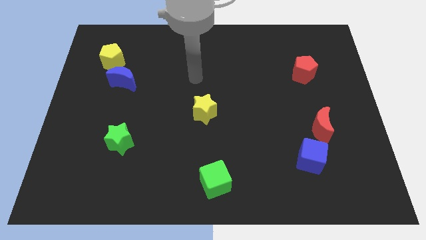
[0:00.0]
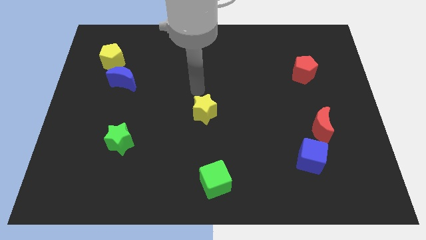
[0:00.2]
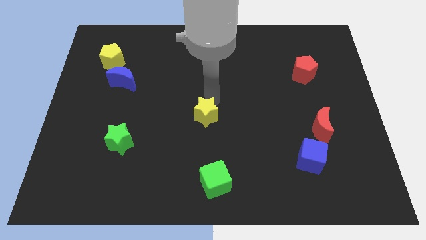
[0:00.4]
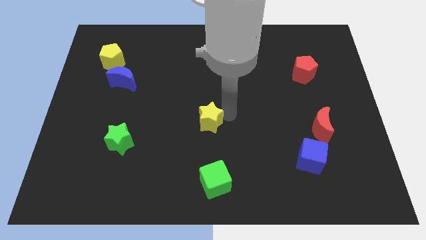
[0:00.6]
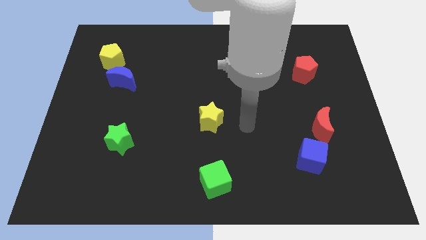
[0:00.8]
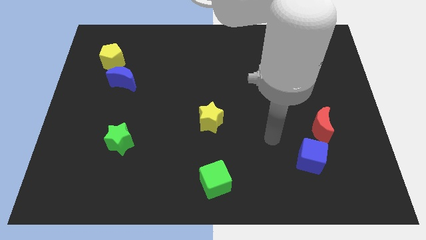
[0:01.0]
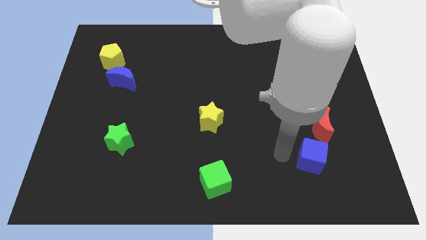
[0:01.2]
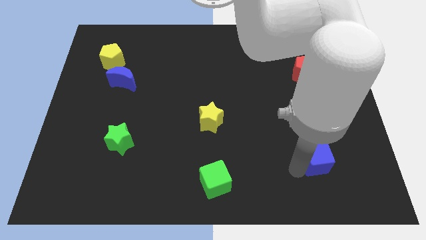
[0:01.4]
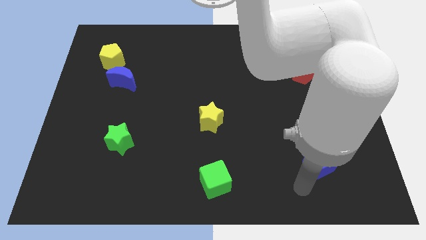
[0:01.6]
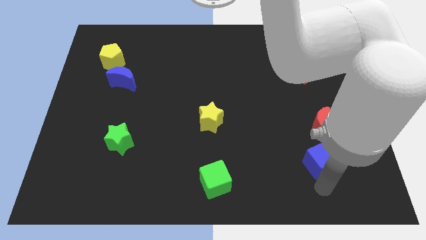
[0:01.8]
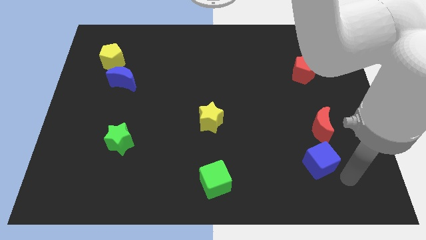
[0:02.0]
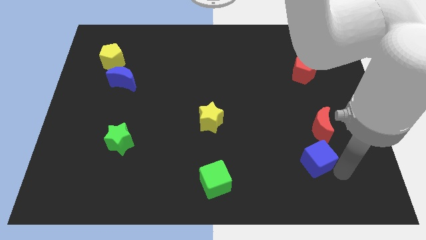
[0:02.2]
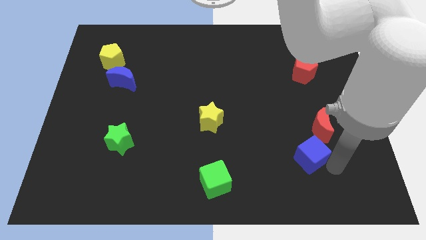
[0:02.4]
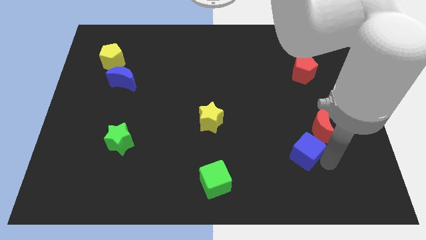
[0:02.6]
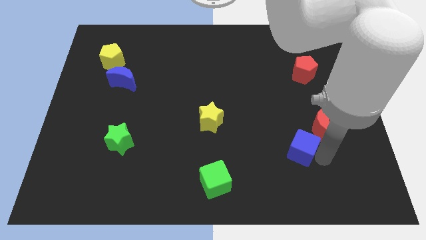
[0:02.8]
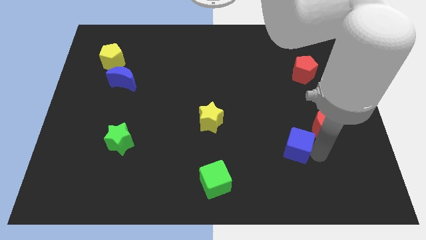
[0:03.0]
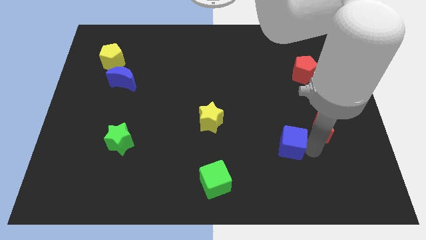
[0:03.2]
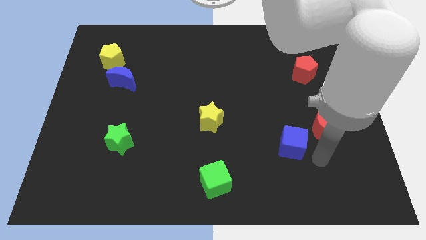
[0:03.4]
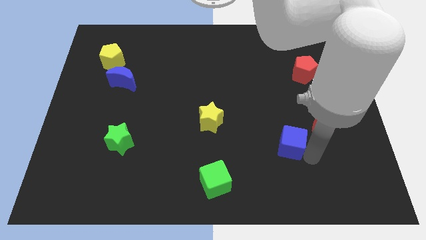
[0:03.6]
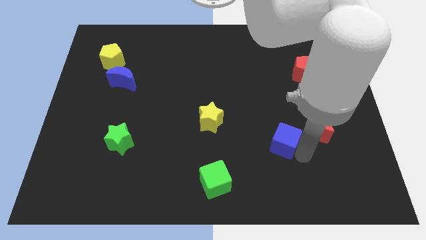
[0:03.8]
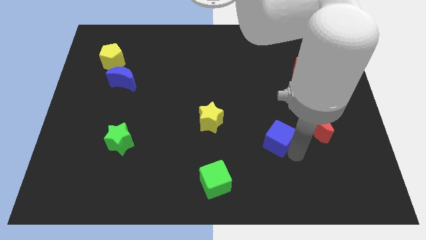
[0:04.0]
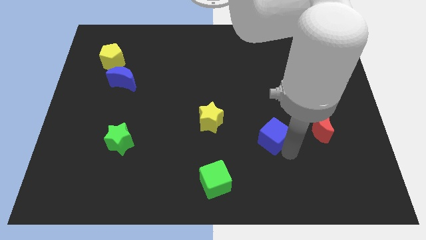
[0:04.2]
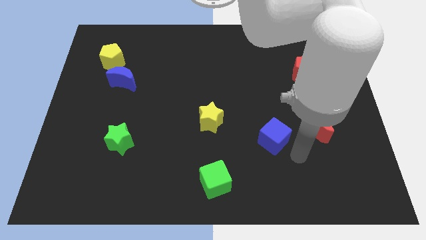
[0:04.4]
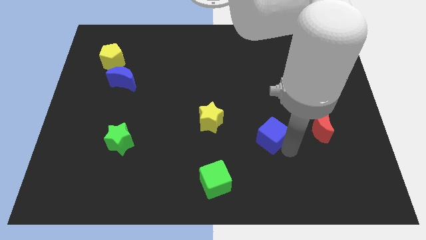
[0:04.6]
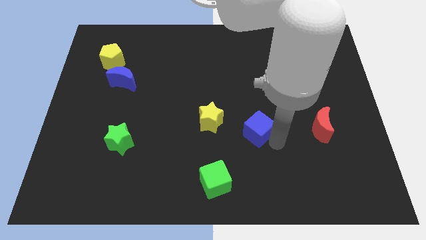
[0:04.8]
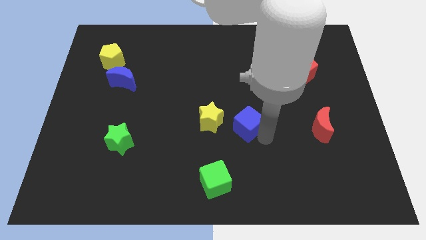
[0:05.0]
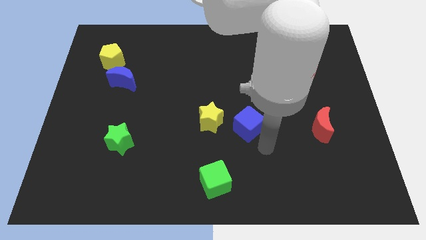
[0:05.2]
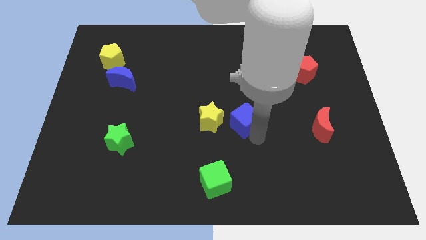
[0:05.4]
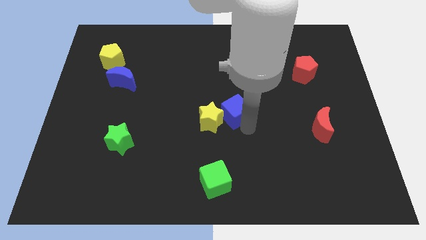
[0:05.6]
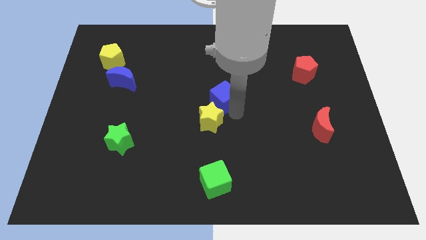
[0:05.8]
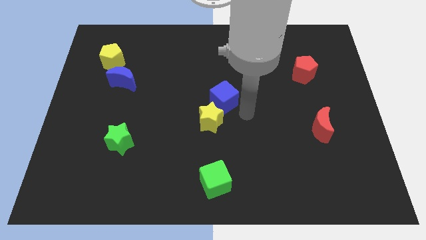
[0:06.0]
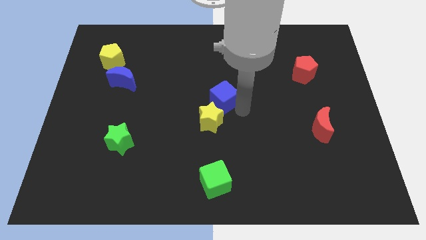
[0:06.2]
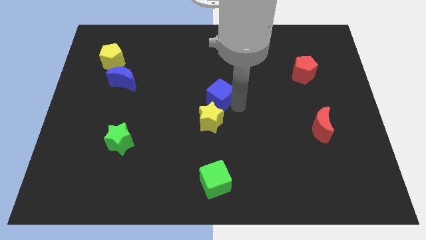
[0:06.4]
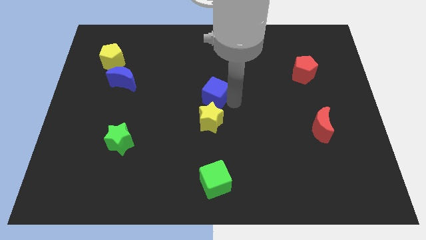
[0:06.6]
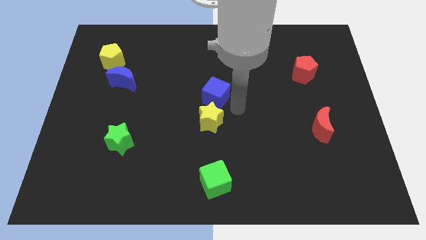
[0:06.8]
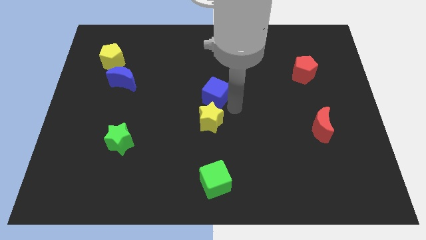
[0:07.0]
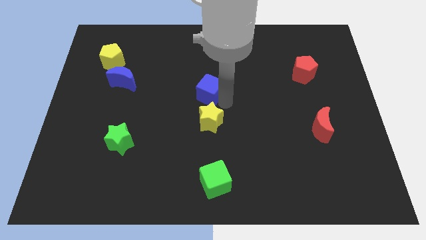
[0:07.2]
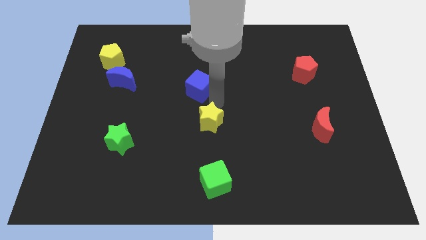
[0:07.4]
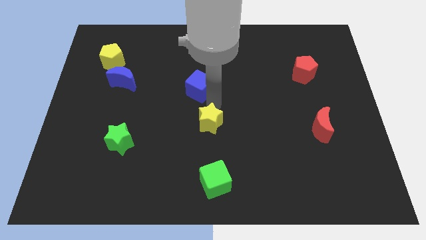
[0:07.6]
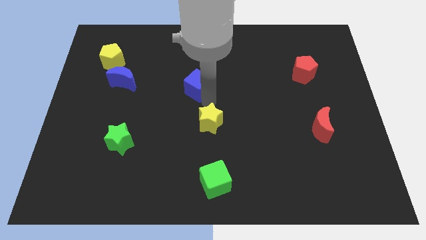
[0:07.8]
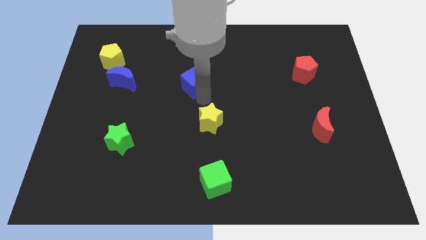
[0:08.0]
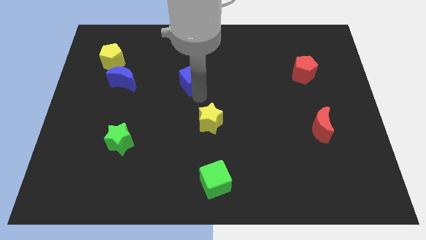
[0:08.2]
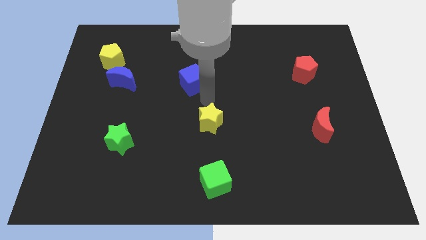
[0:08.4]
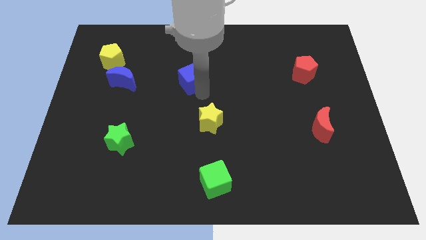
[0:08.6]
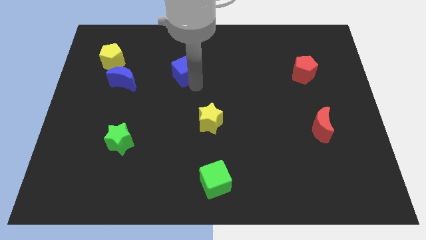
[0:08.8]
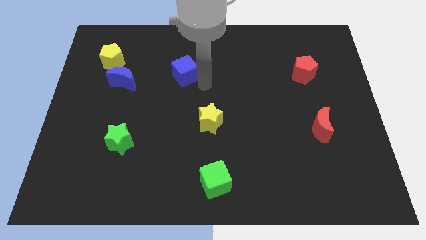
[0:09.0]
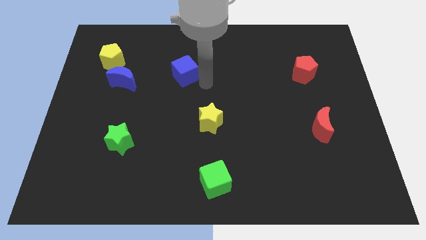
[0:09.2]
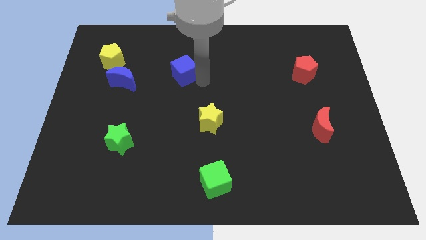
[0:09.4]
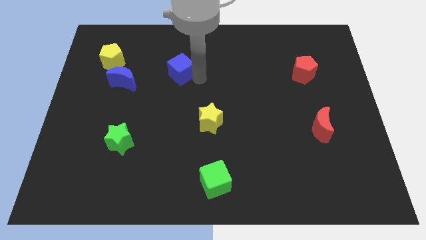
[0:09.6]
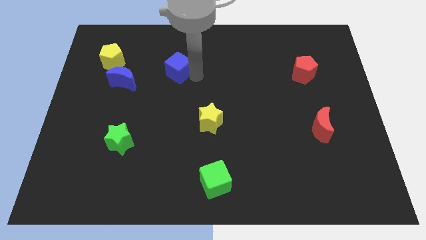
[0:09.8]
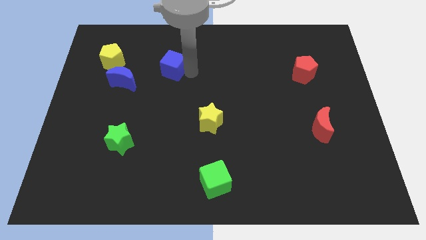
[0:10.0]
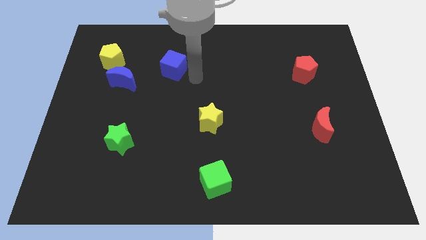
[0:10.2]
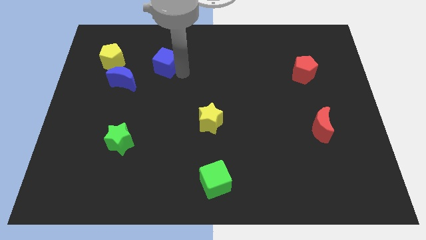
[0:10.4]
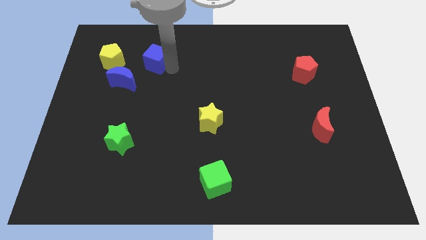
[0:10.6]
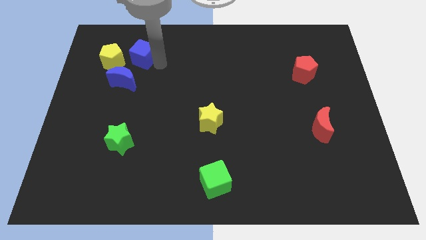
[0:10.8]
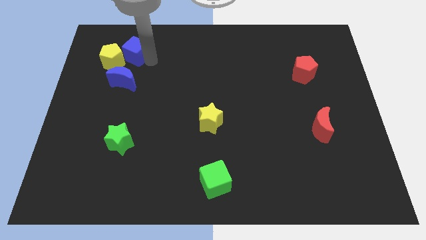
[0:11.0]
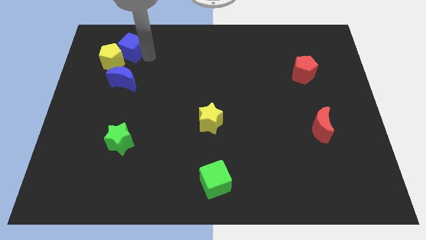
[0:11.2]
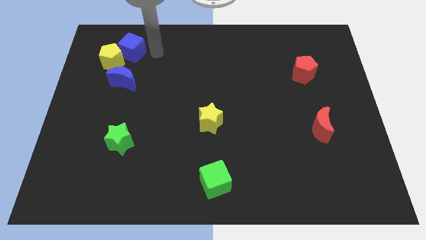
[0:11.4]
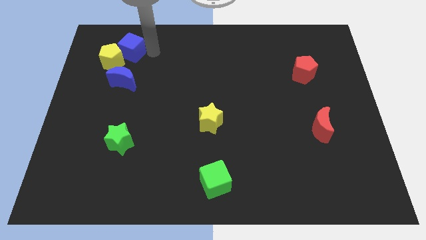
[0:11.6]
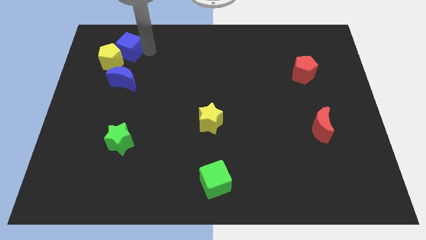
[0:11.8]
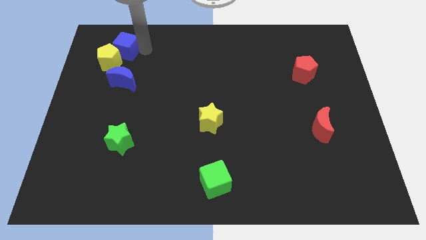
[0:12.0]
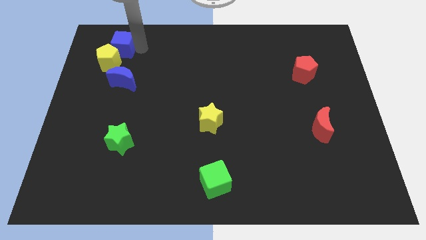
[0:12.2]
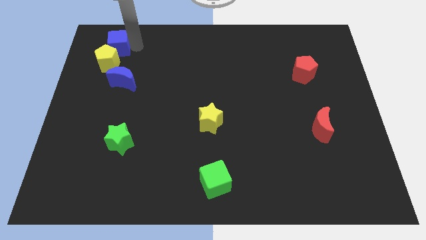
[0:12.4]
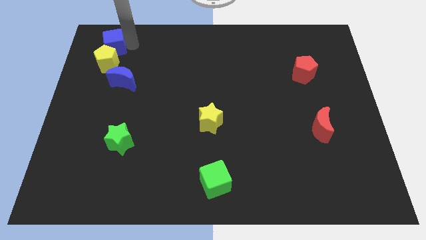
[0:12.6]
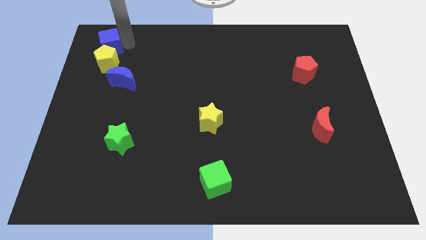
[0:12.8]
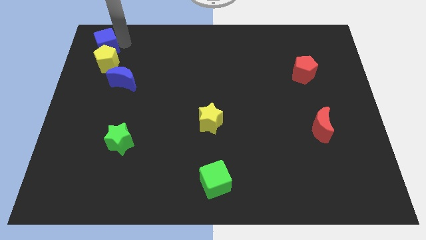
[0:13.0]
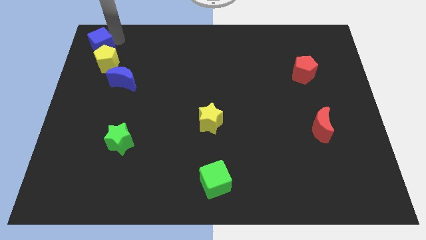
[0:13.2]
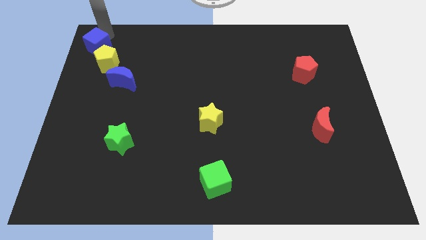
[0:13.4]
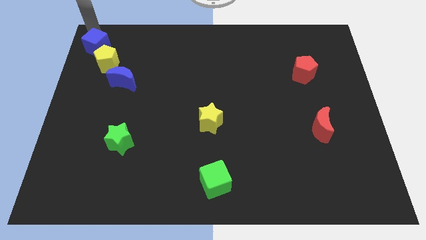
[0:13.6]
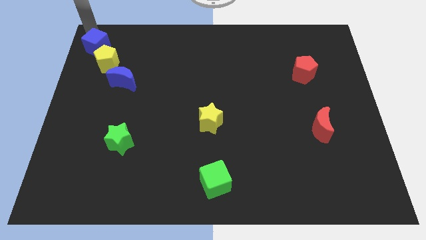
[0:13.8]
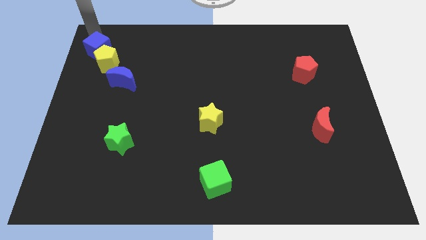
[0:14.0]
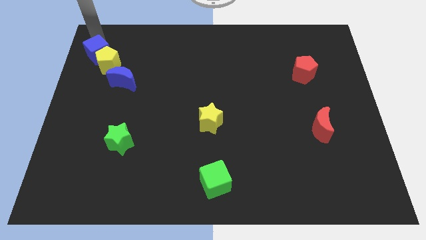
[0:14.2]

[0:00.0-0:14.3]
slide the blue cube to the top left side of the blue moon
